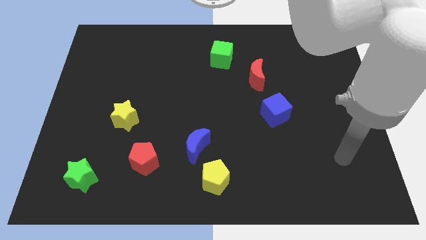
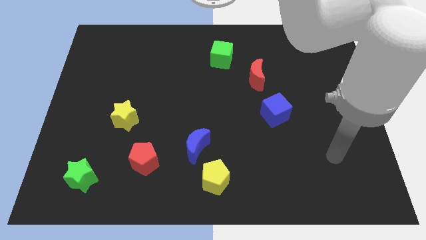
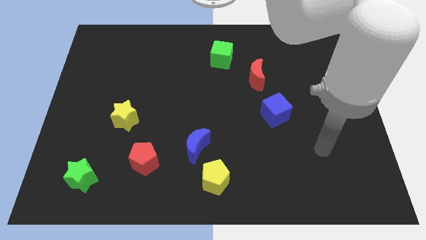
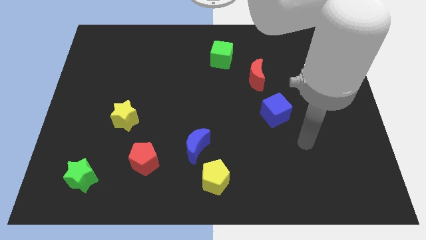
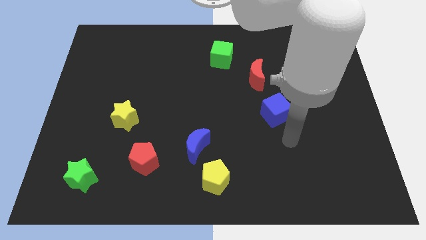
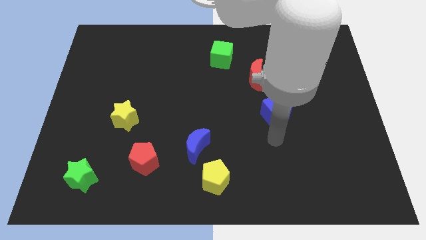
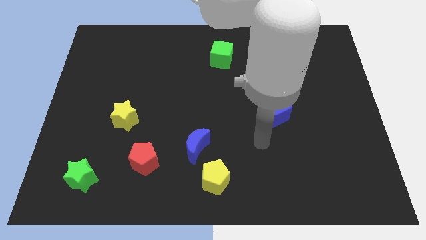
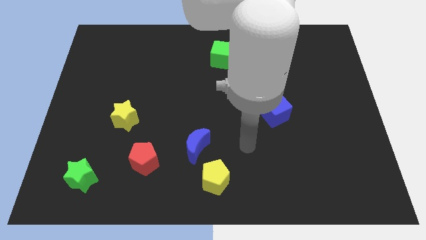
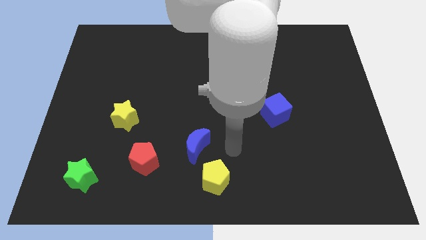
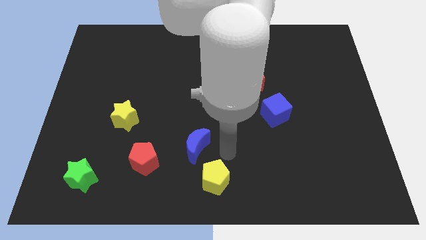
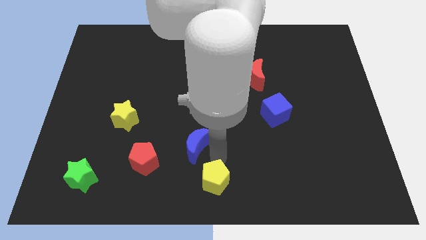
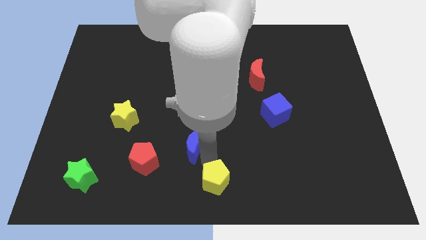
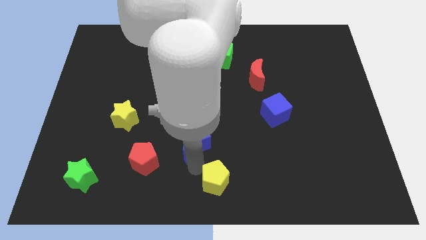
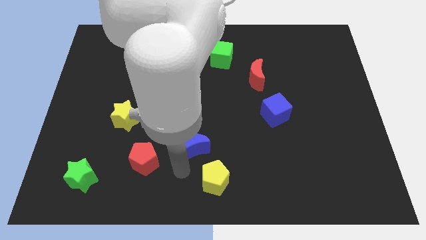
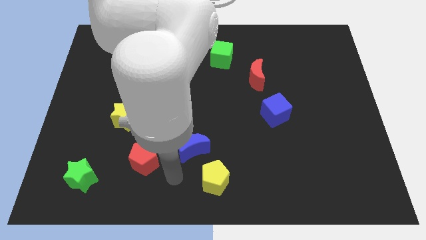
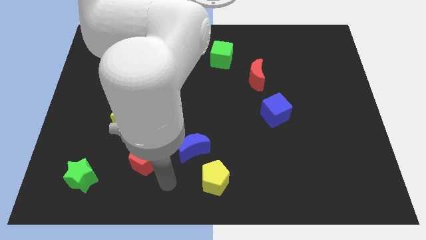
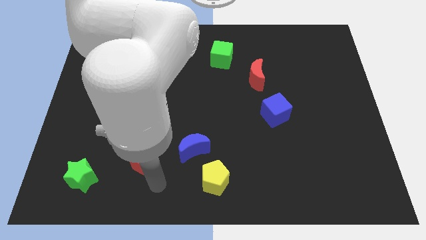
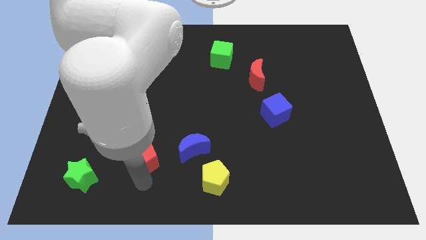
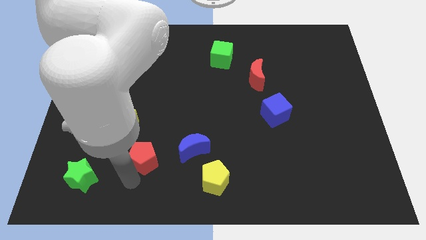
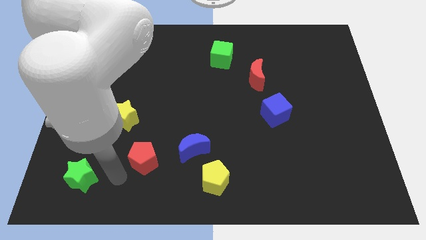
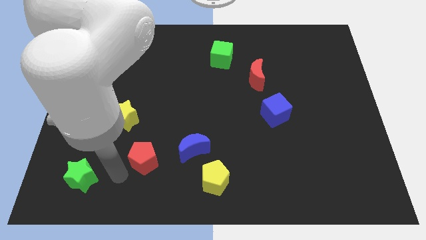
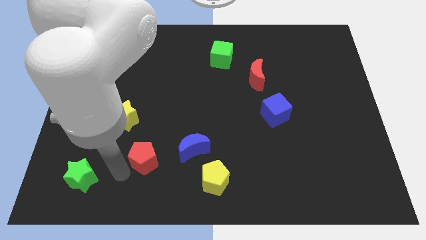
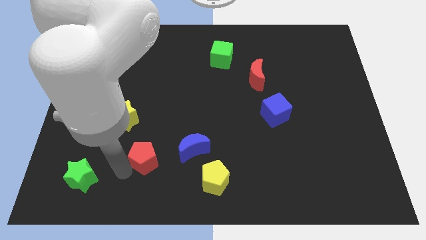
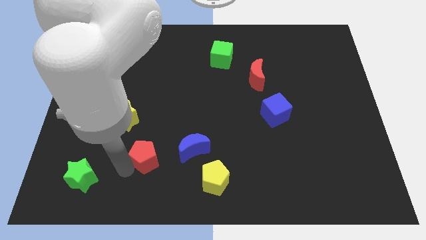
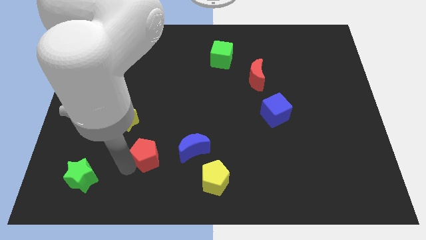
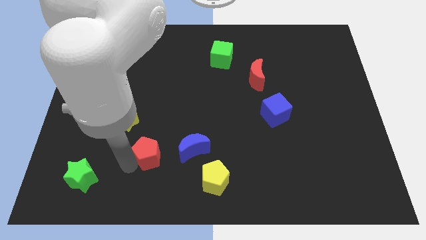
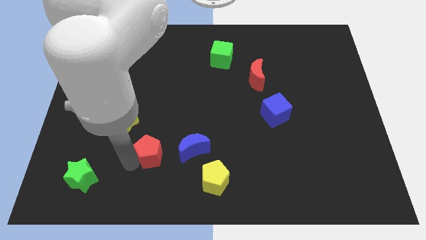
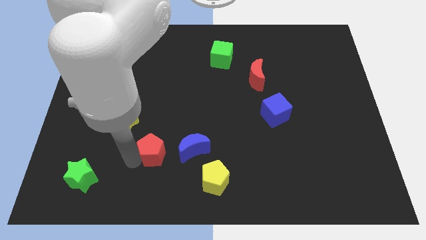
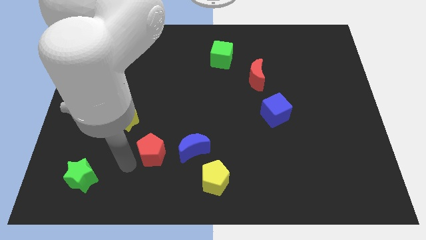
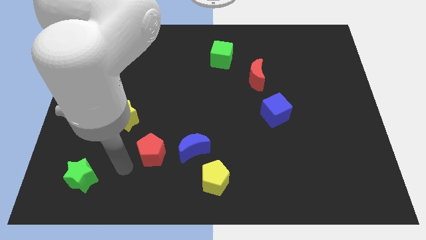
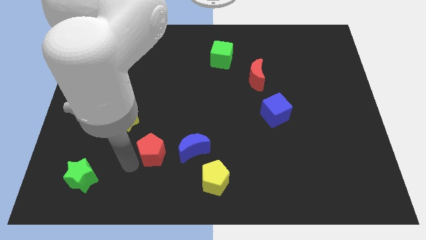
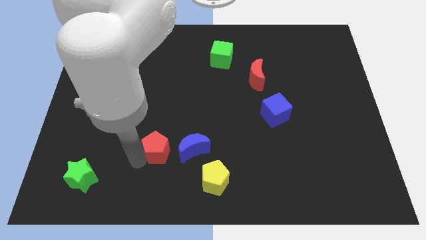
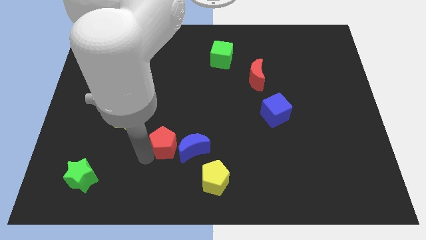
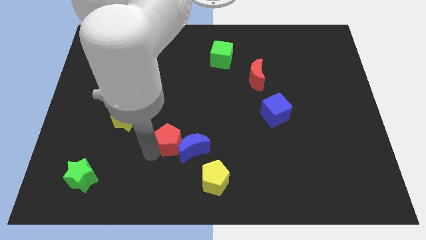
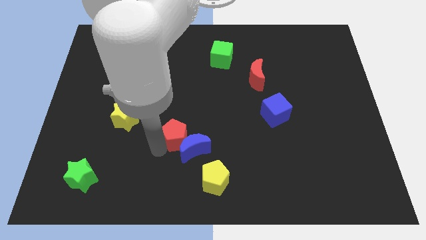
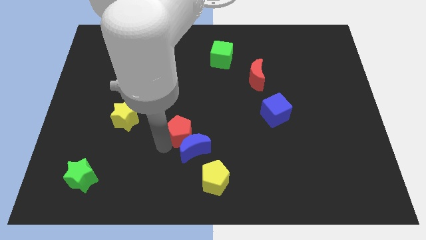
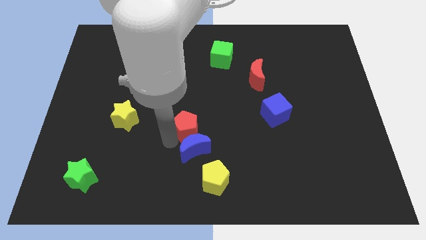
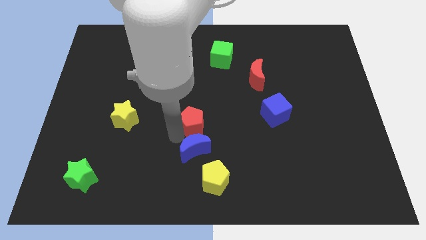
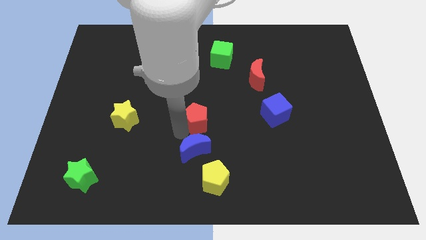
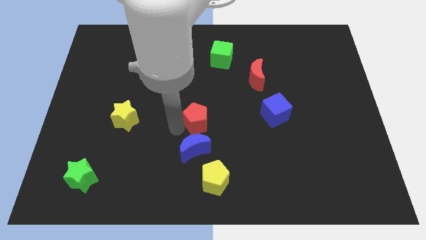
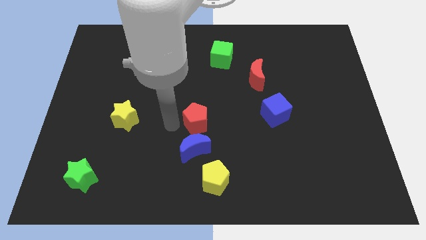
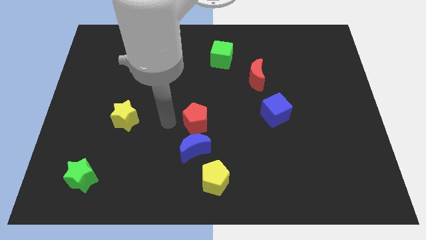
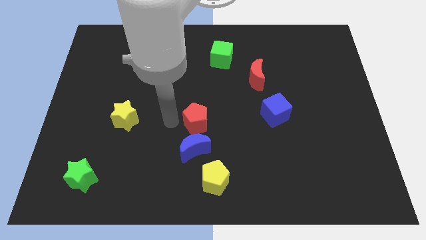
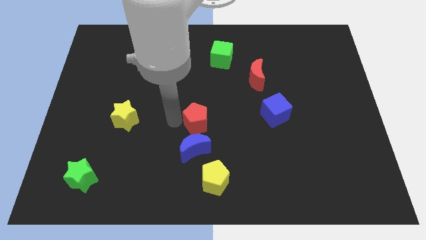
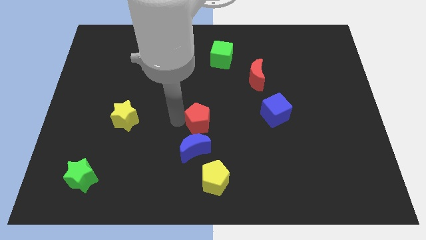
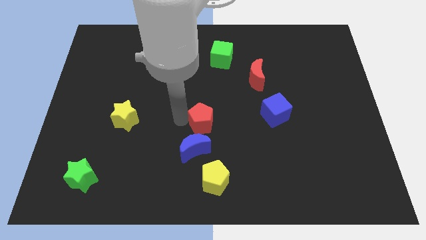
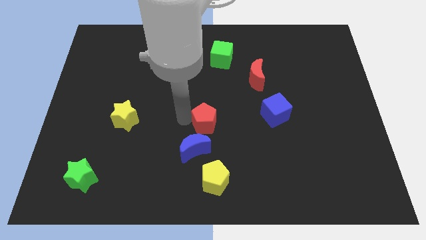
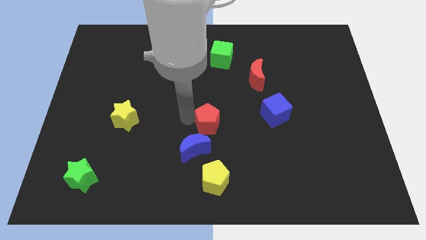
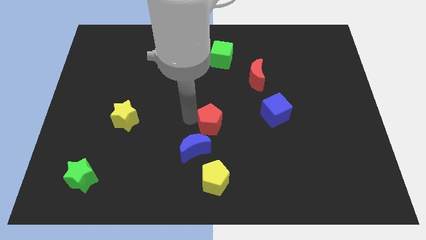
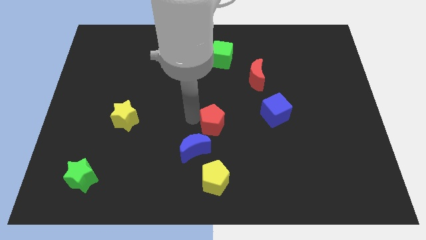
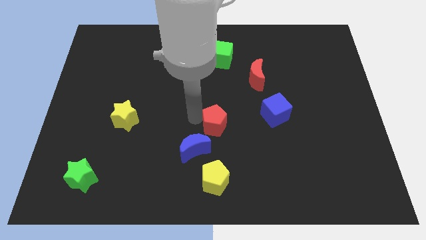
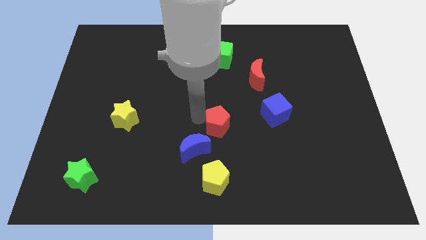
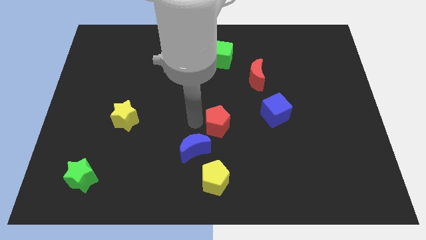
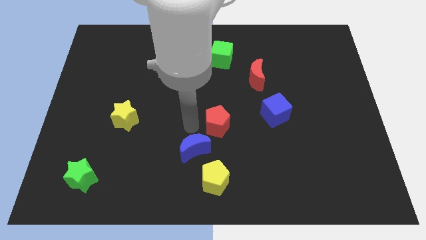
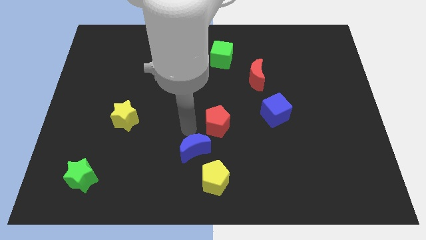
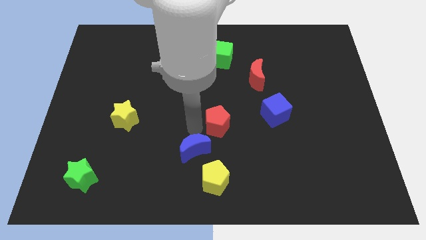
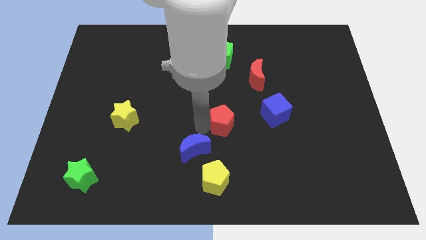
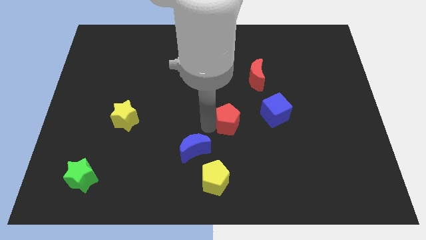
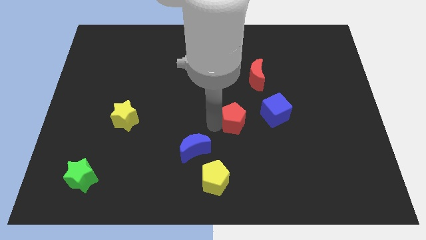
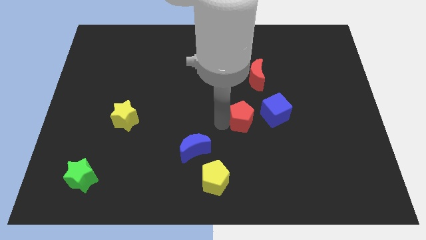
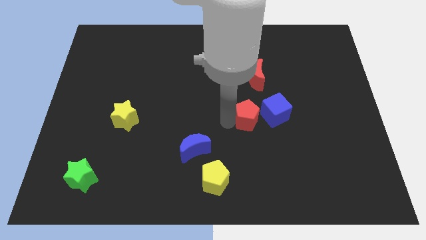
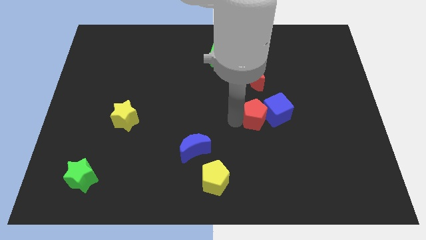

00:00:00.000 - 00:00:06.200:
move the red pentagon towards the blue cube

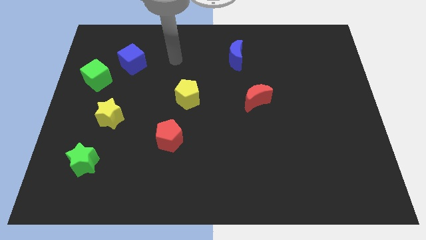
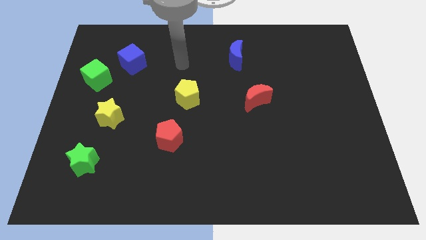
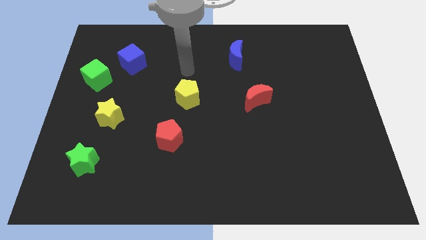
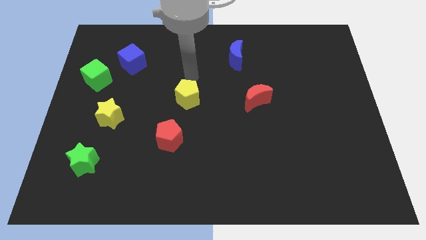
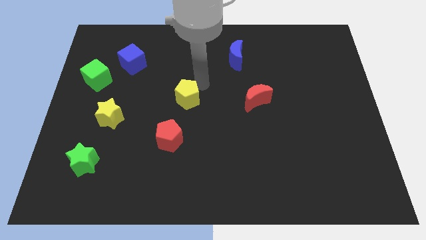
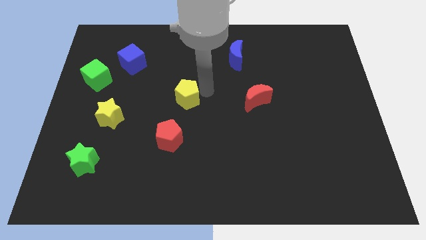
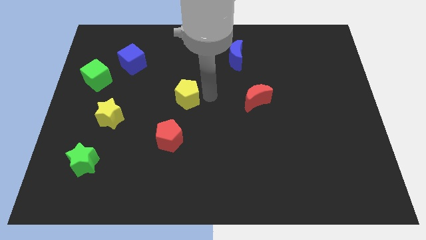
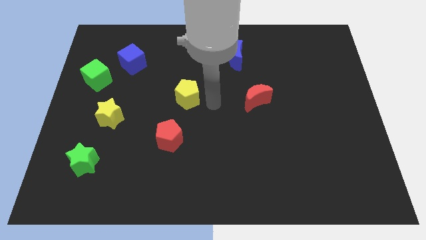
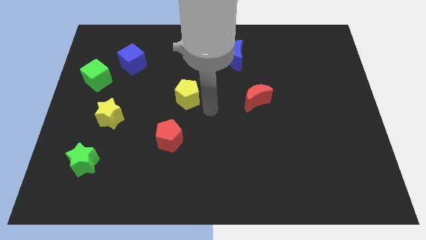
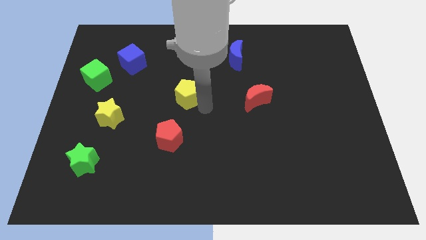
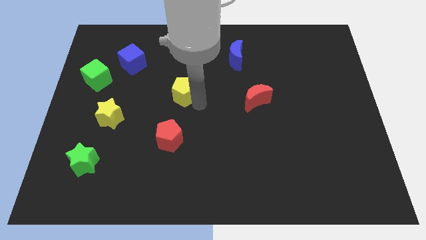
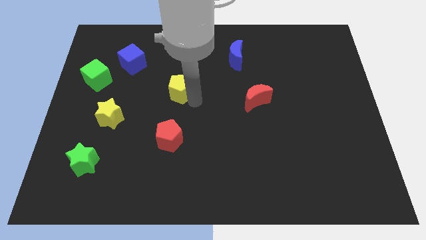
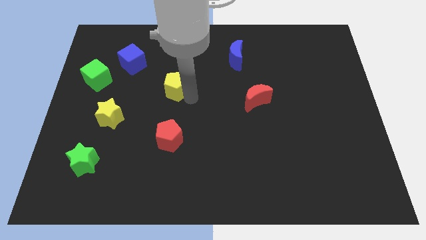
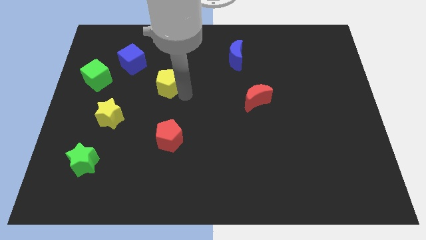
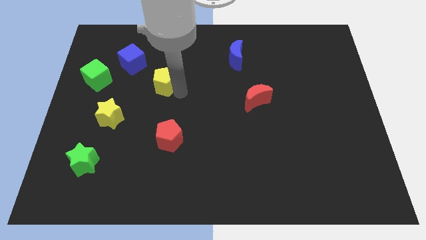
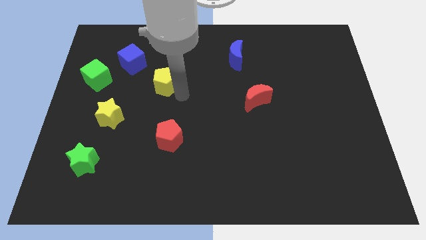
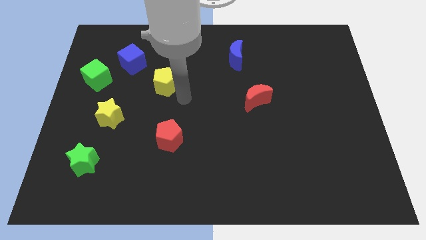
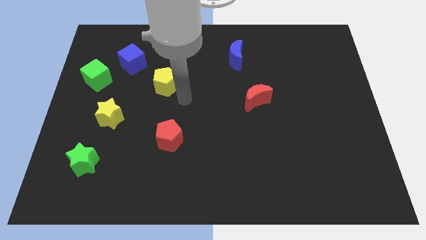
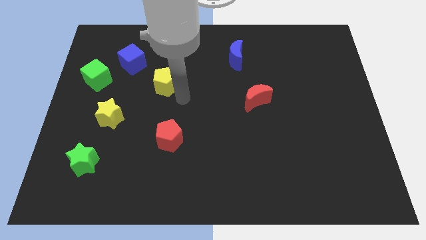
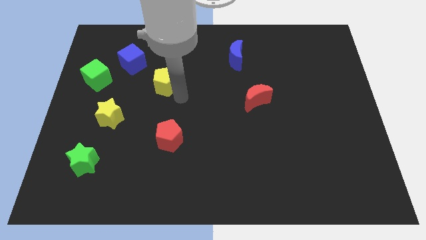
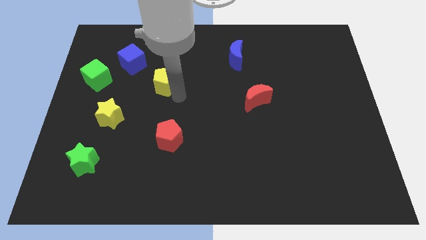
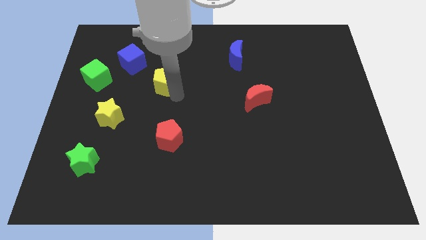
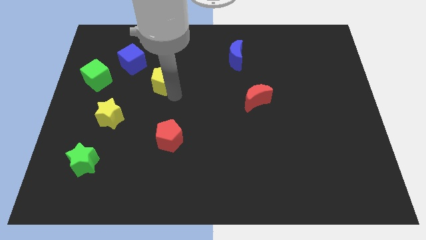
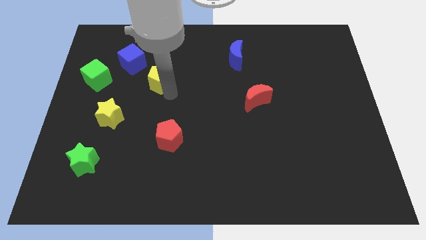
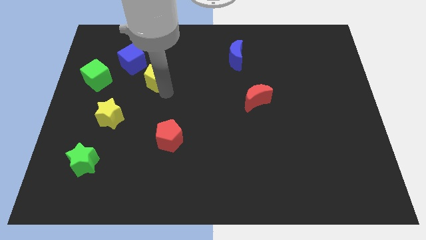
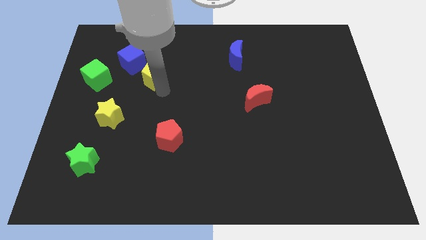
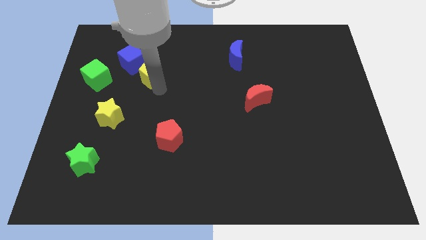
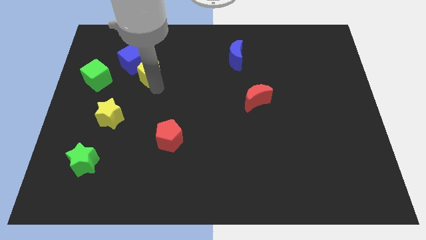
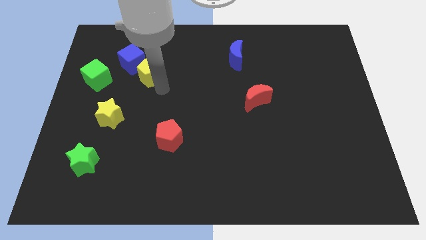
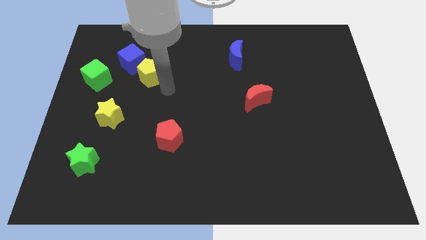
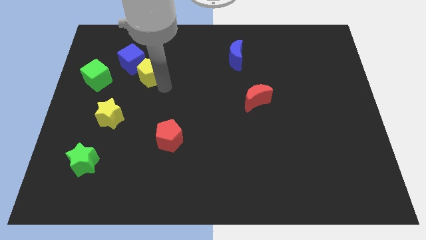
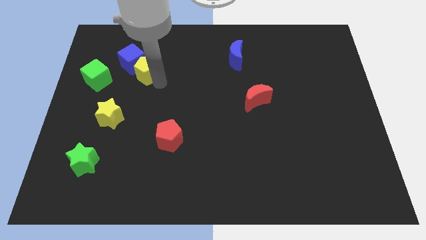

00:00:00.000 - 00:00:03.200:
slide the yellow pentagon to the blue cube
